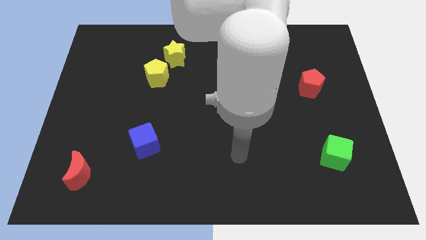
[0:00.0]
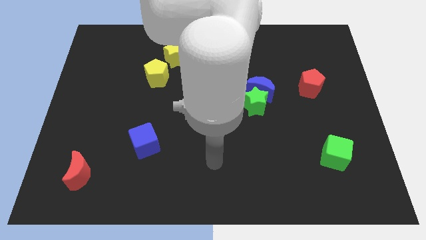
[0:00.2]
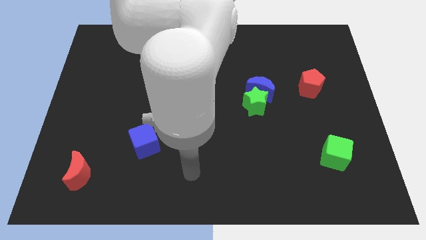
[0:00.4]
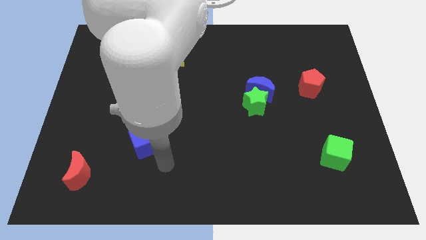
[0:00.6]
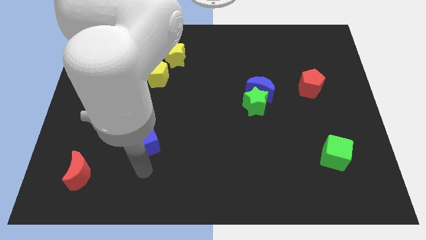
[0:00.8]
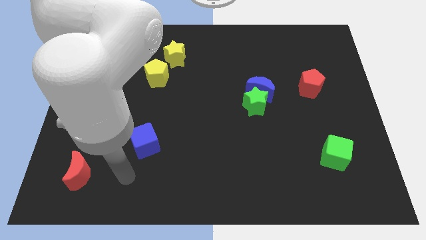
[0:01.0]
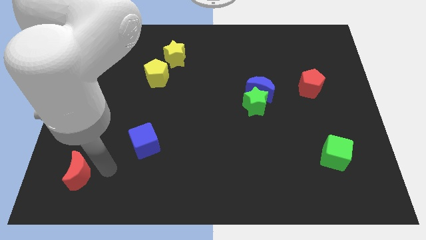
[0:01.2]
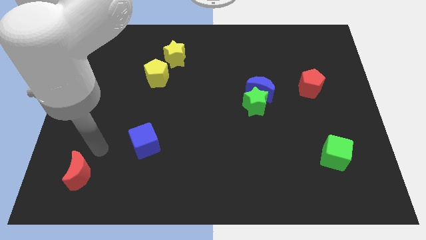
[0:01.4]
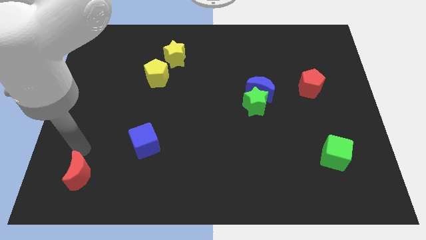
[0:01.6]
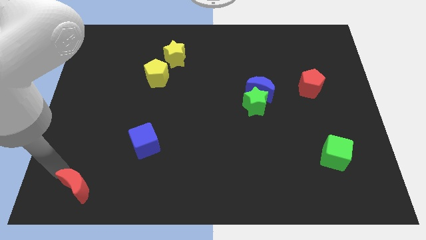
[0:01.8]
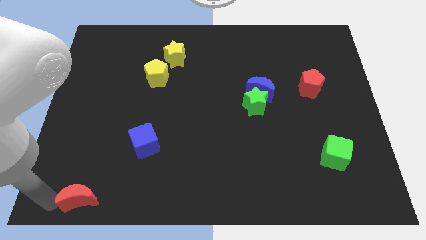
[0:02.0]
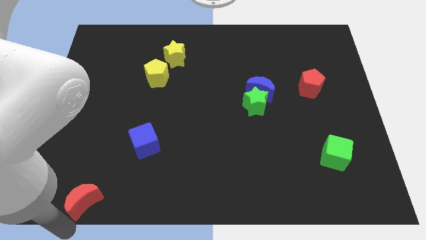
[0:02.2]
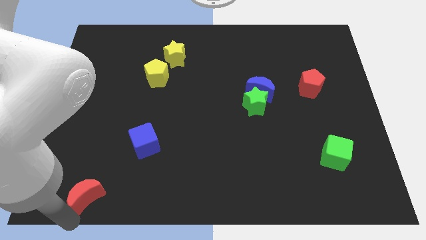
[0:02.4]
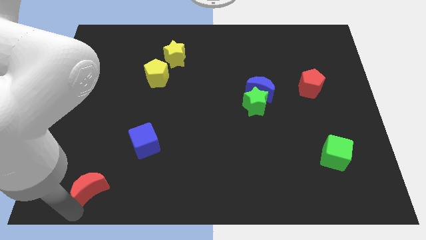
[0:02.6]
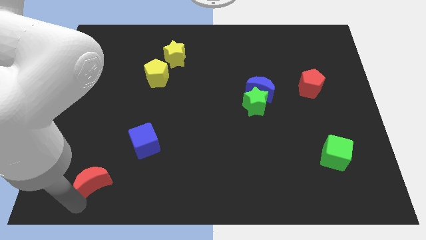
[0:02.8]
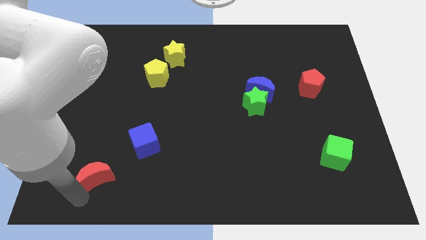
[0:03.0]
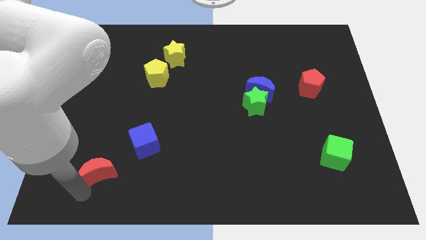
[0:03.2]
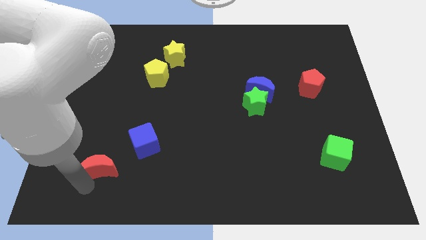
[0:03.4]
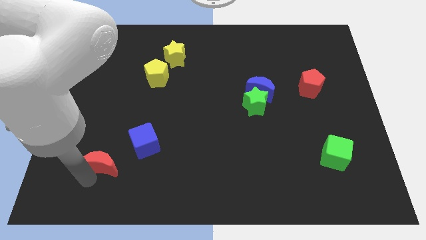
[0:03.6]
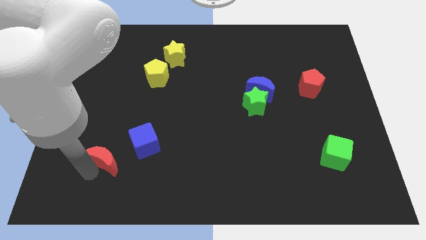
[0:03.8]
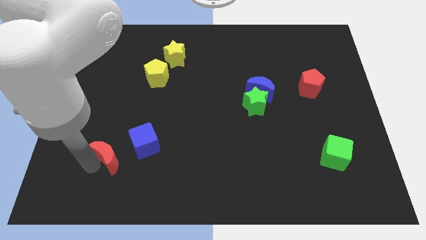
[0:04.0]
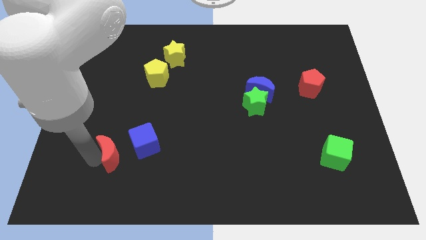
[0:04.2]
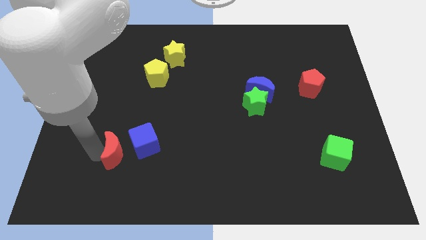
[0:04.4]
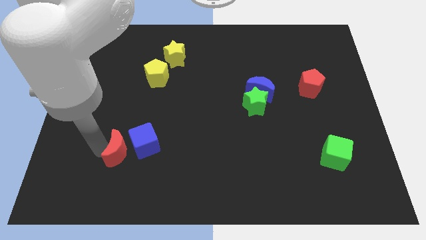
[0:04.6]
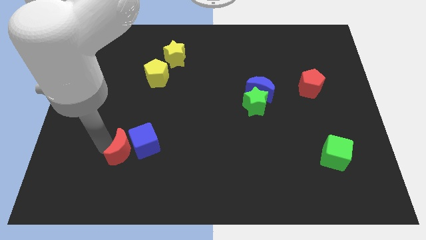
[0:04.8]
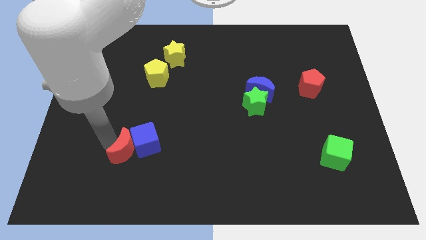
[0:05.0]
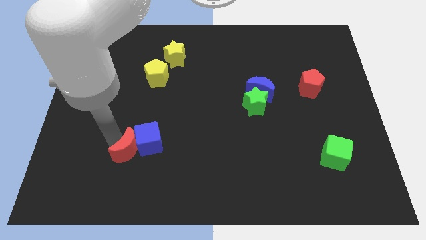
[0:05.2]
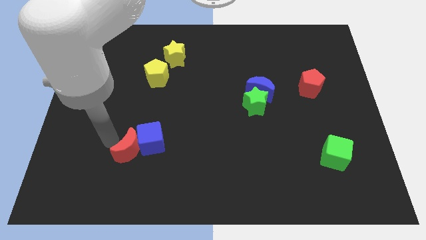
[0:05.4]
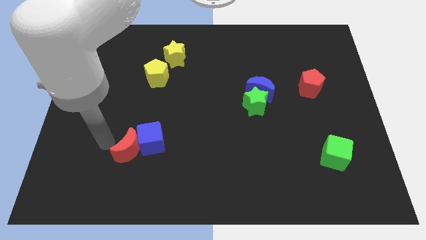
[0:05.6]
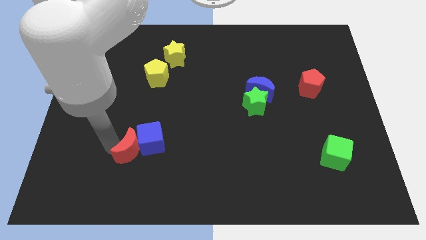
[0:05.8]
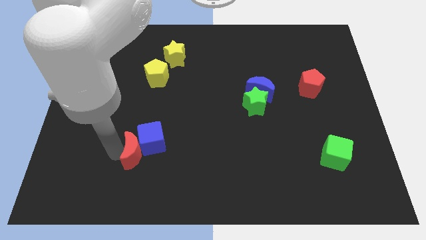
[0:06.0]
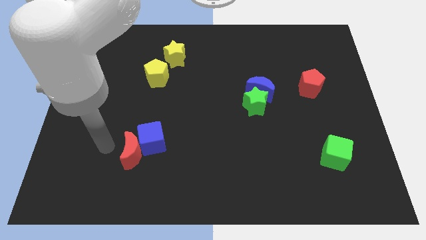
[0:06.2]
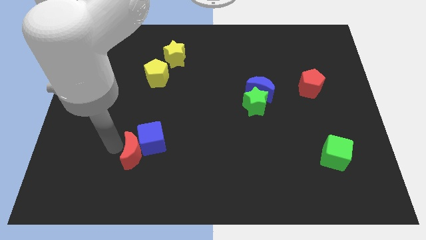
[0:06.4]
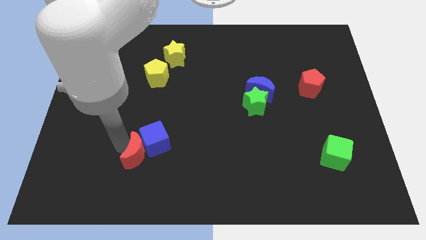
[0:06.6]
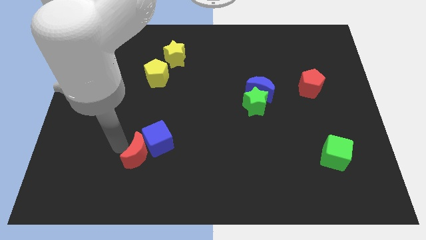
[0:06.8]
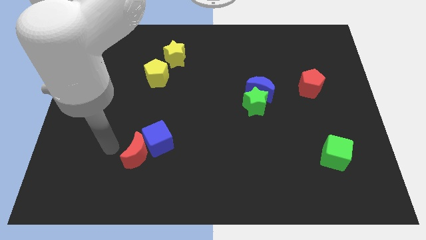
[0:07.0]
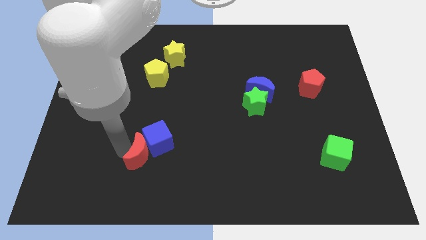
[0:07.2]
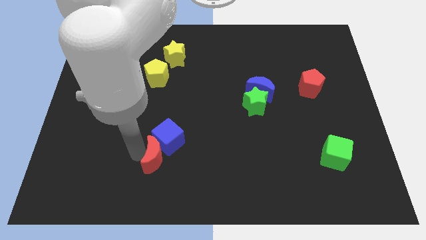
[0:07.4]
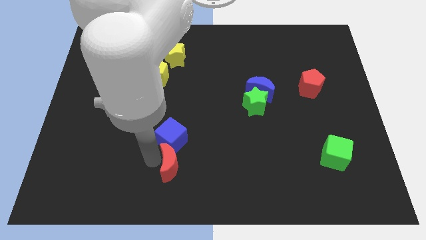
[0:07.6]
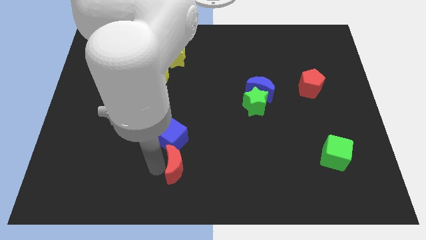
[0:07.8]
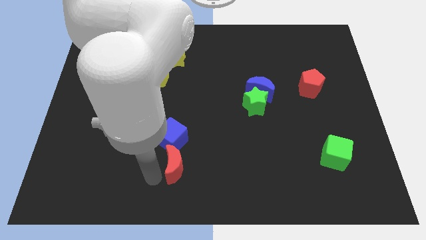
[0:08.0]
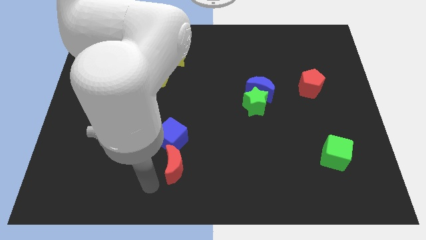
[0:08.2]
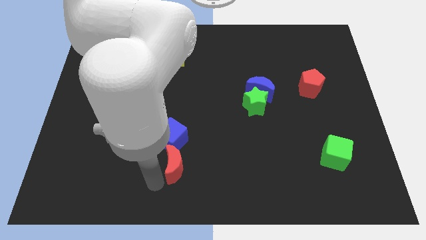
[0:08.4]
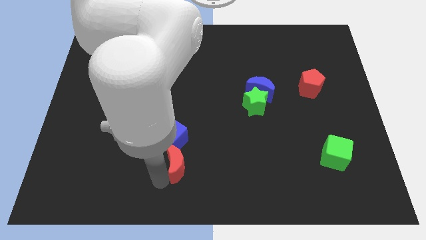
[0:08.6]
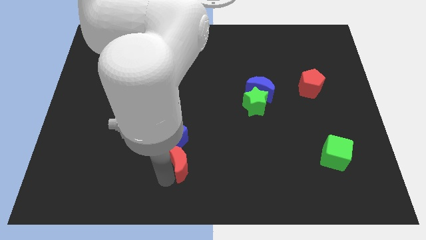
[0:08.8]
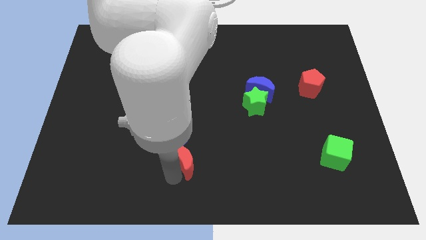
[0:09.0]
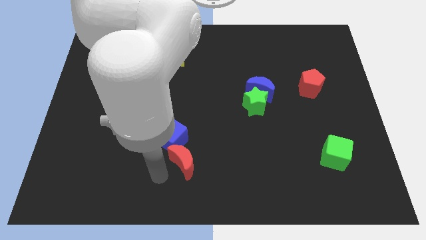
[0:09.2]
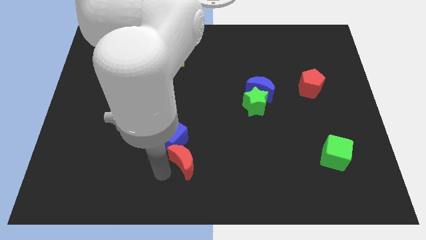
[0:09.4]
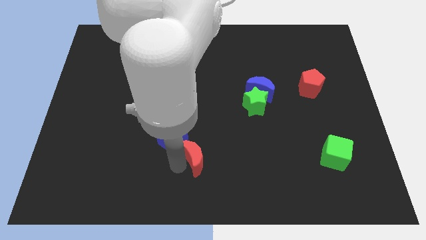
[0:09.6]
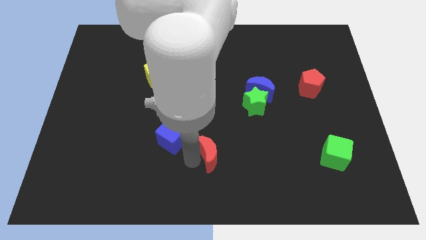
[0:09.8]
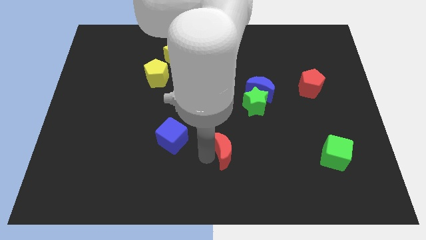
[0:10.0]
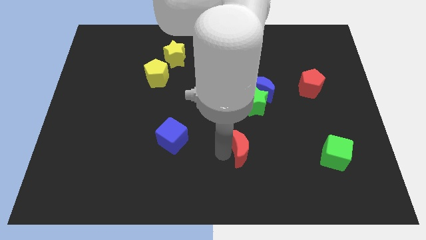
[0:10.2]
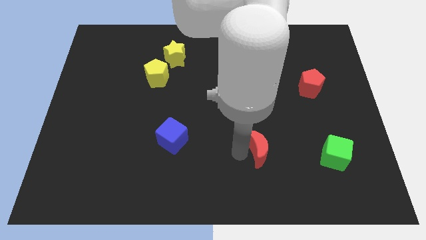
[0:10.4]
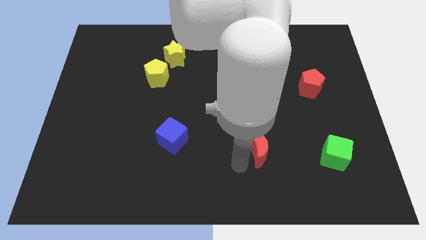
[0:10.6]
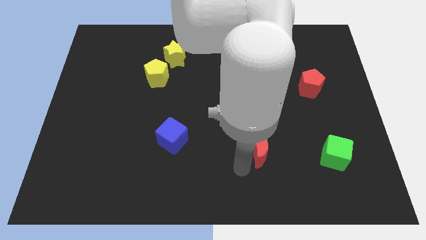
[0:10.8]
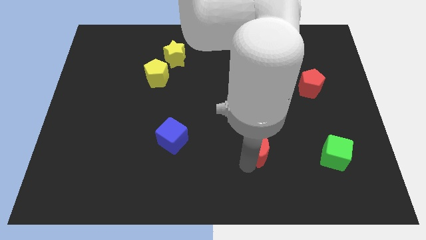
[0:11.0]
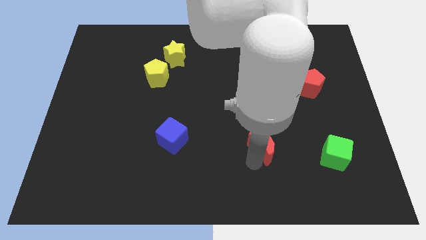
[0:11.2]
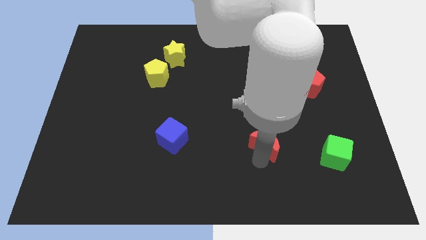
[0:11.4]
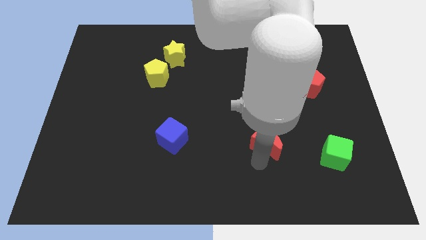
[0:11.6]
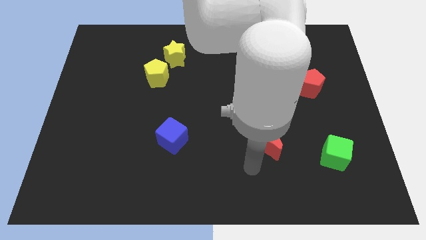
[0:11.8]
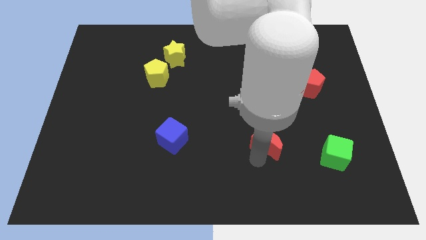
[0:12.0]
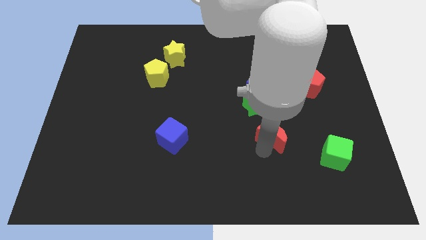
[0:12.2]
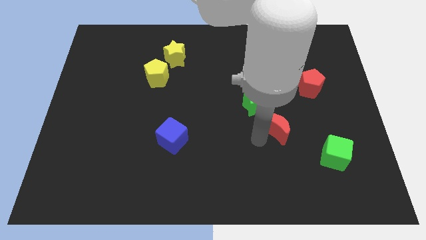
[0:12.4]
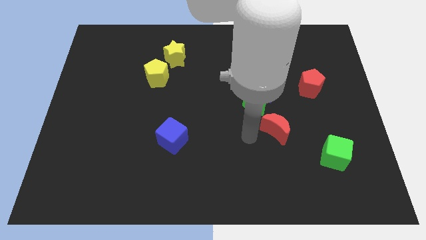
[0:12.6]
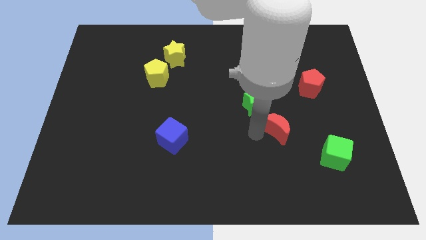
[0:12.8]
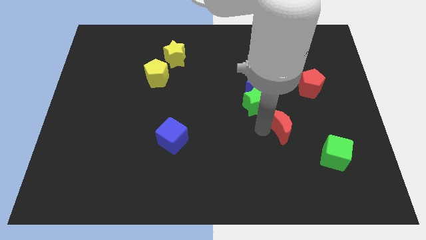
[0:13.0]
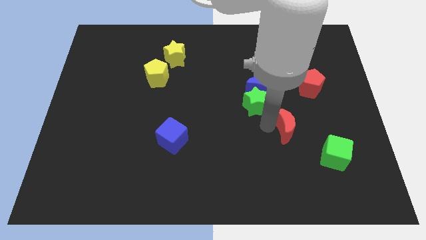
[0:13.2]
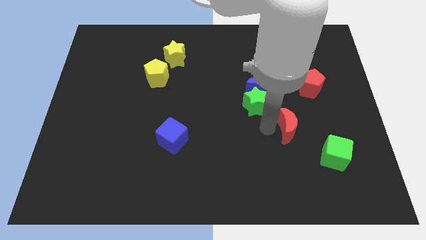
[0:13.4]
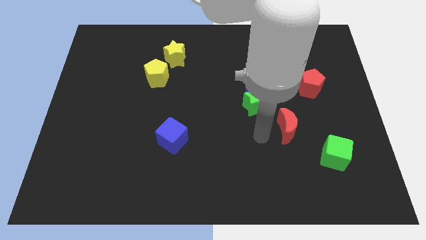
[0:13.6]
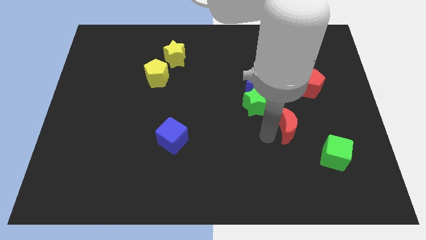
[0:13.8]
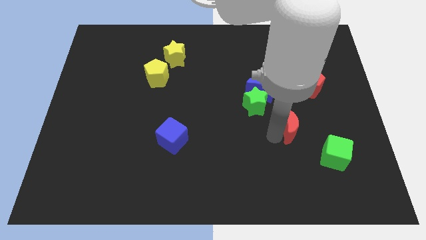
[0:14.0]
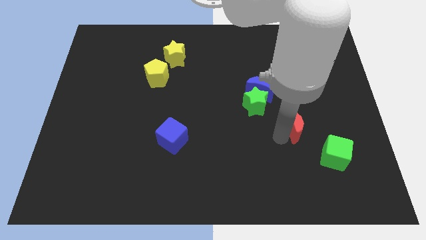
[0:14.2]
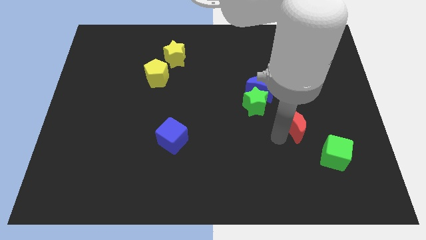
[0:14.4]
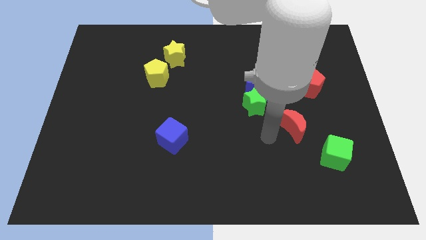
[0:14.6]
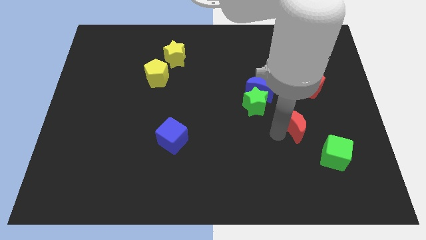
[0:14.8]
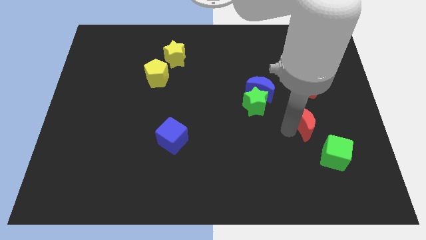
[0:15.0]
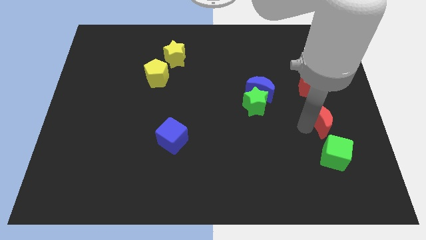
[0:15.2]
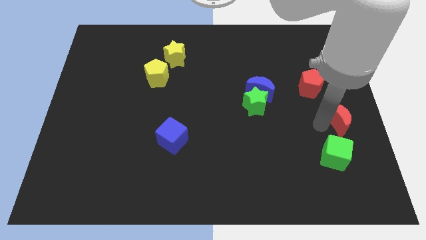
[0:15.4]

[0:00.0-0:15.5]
put the red moon to the right side
